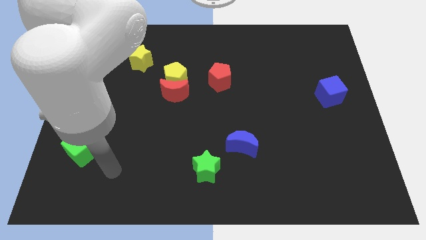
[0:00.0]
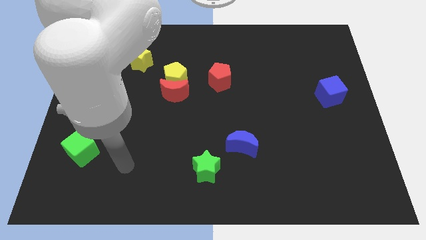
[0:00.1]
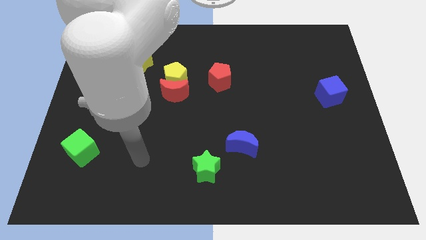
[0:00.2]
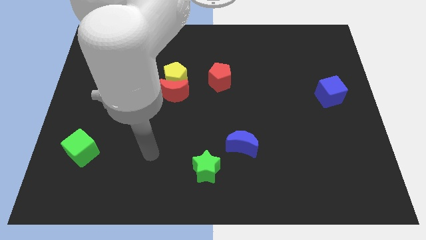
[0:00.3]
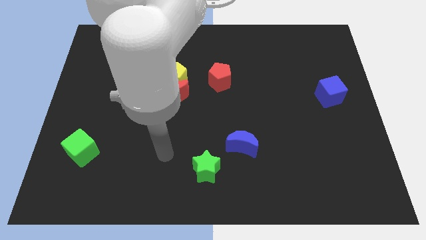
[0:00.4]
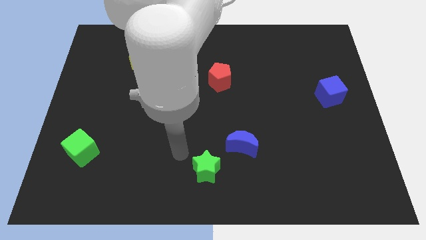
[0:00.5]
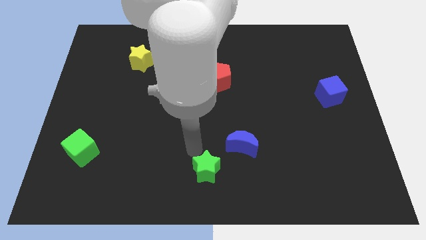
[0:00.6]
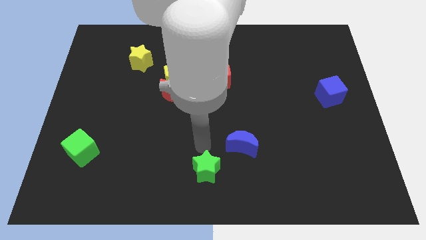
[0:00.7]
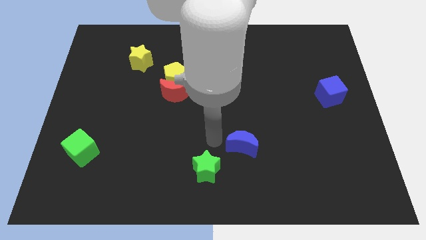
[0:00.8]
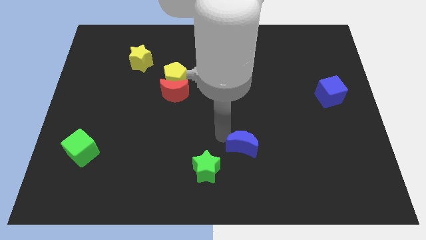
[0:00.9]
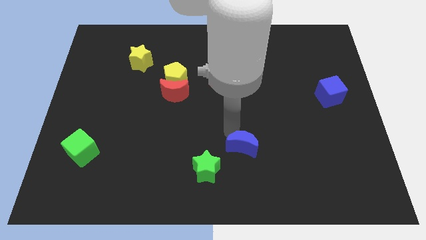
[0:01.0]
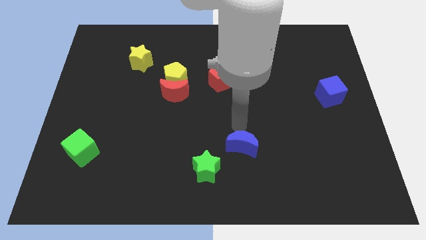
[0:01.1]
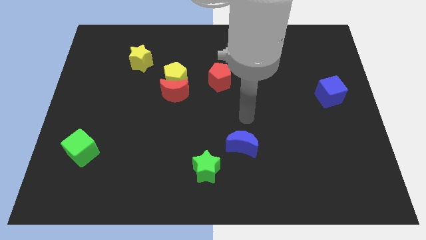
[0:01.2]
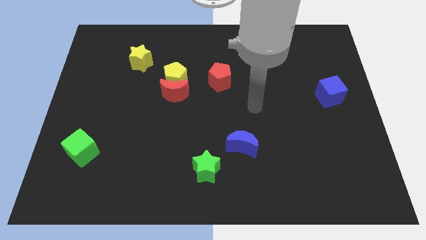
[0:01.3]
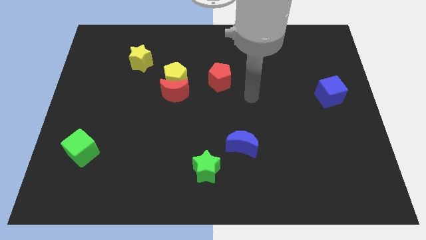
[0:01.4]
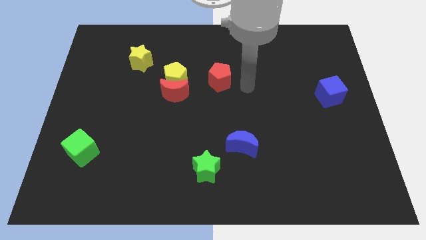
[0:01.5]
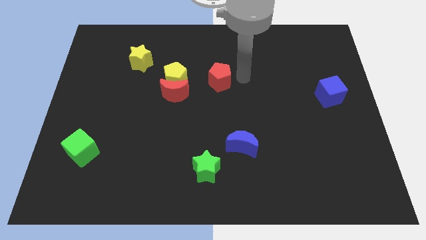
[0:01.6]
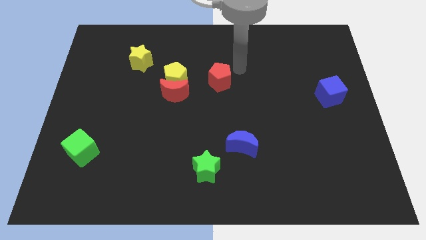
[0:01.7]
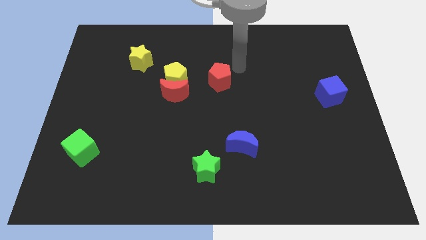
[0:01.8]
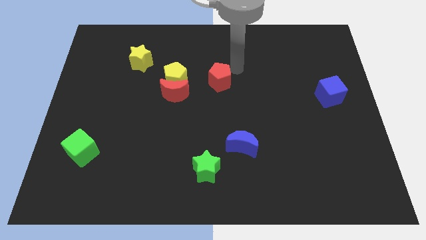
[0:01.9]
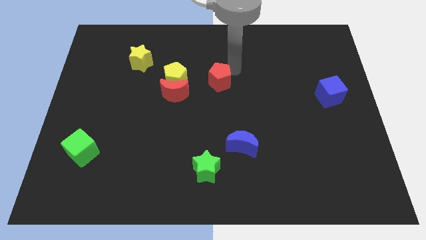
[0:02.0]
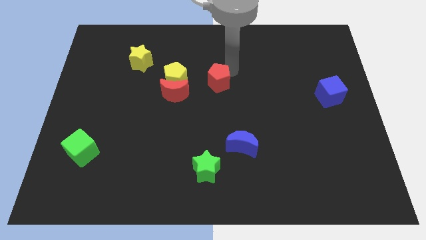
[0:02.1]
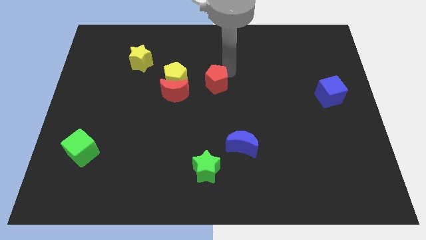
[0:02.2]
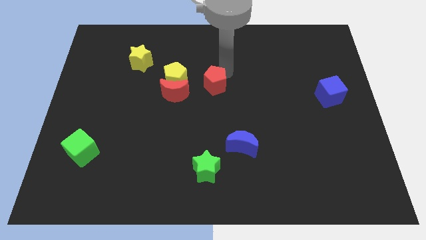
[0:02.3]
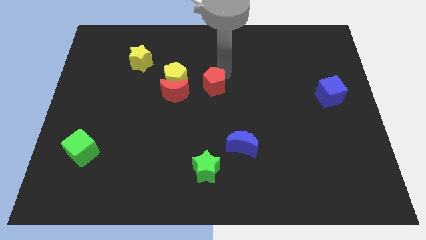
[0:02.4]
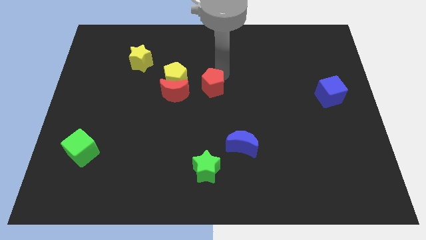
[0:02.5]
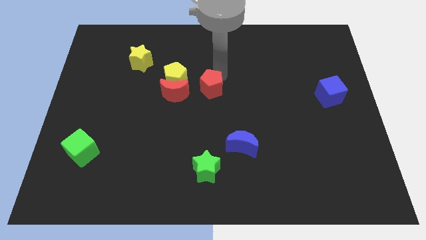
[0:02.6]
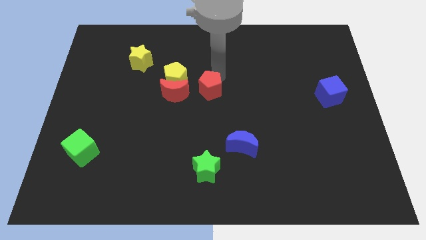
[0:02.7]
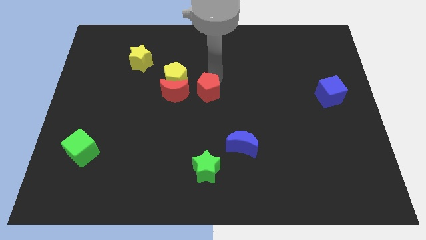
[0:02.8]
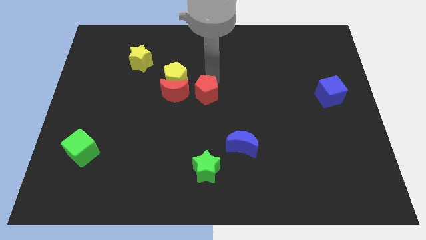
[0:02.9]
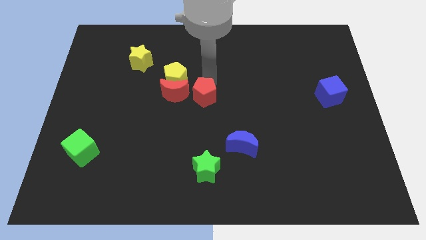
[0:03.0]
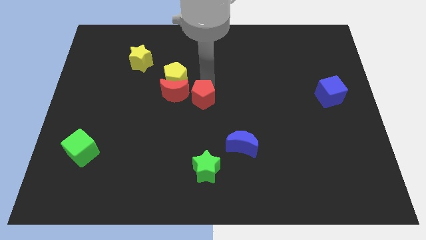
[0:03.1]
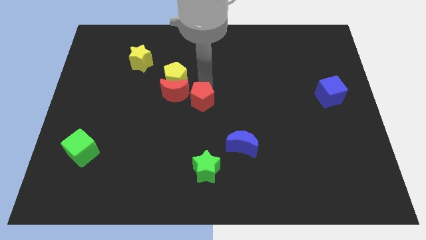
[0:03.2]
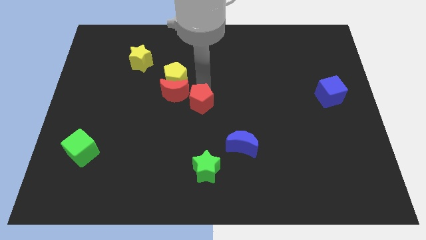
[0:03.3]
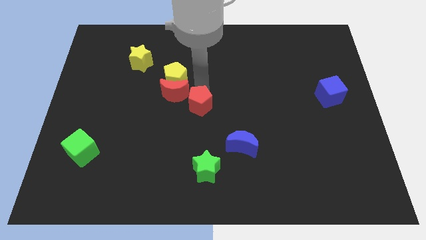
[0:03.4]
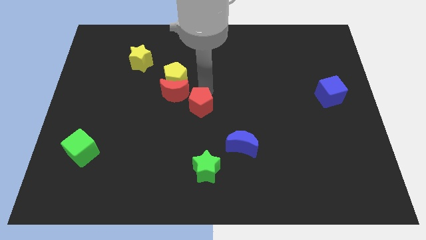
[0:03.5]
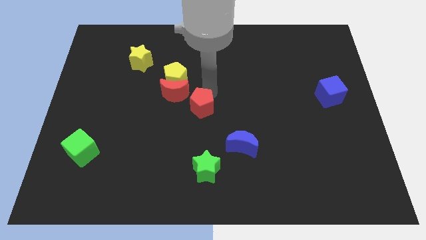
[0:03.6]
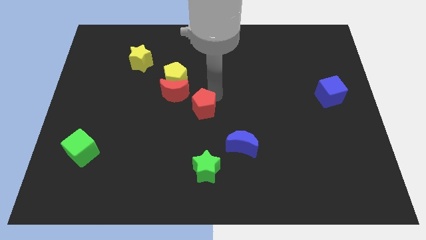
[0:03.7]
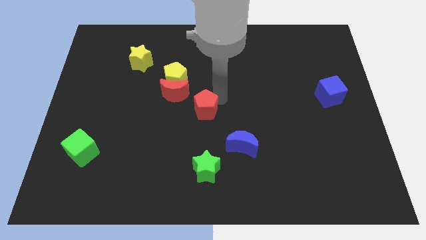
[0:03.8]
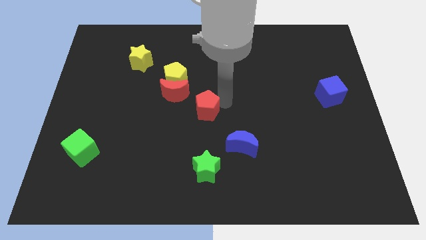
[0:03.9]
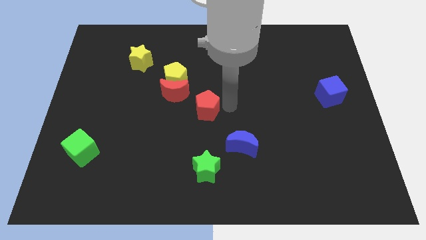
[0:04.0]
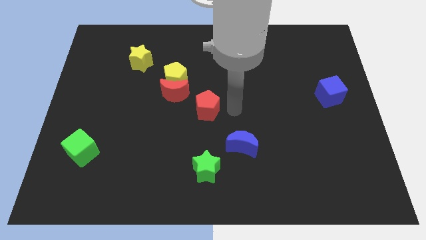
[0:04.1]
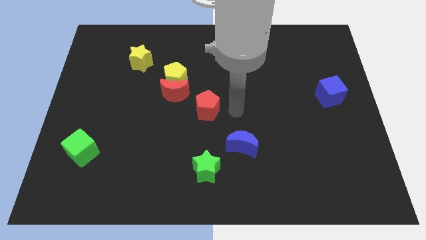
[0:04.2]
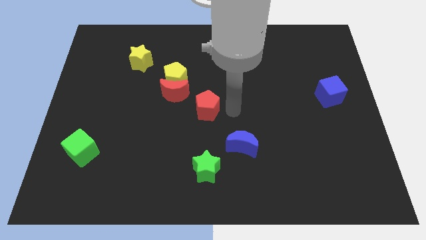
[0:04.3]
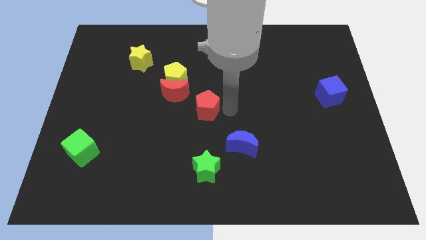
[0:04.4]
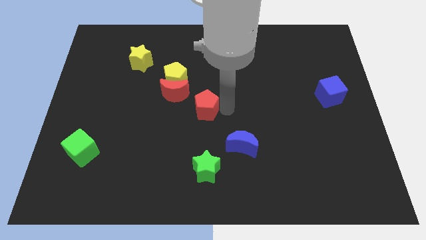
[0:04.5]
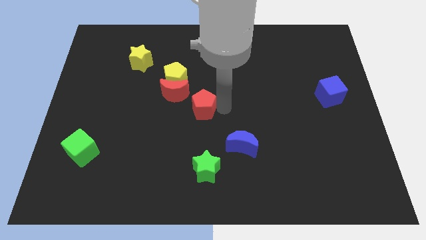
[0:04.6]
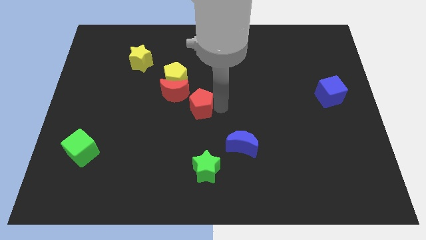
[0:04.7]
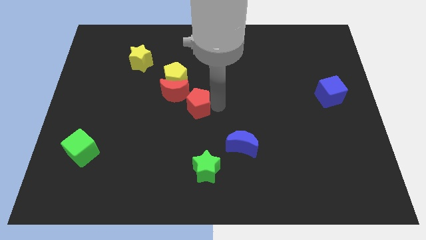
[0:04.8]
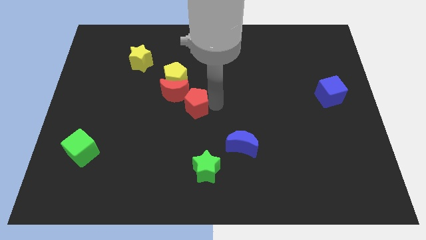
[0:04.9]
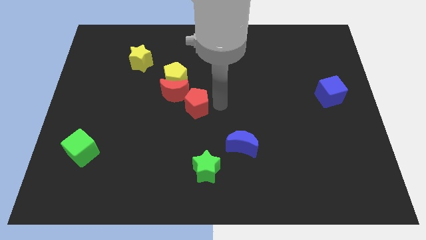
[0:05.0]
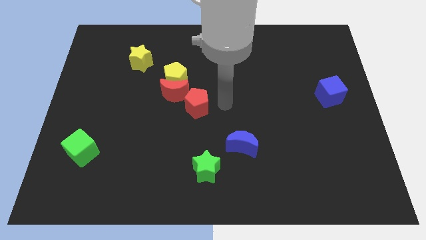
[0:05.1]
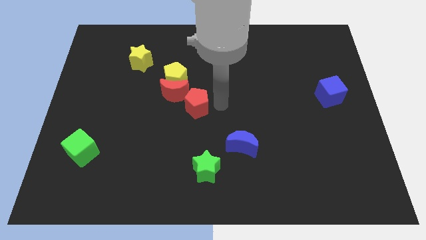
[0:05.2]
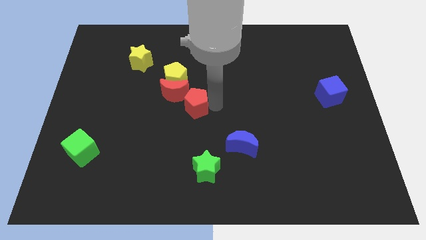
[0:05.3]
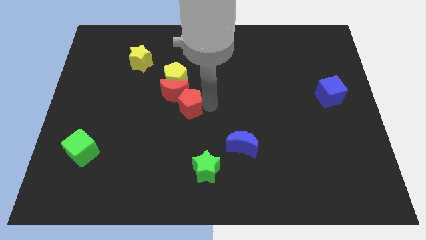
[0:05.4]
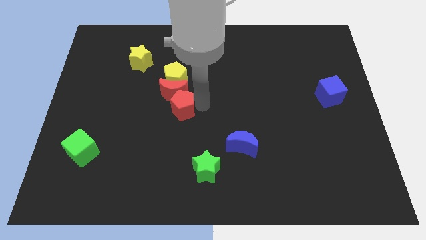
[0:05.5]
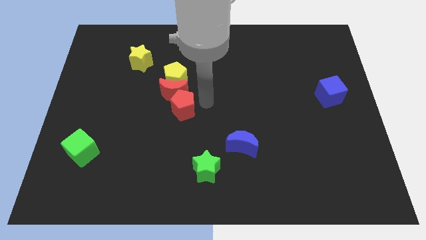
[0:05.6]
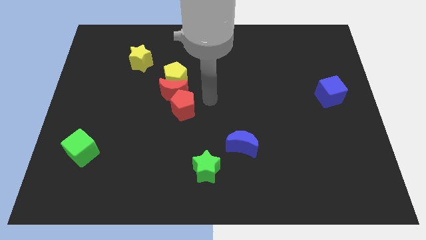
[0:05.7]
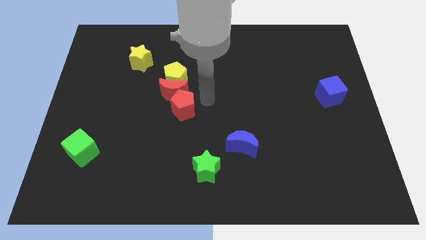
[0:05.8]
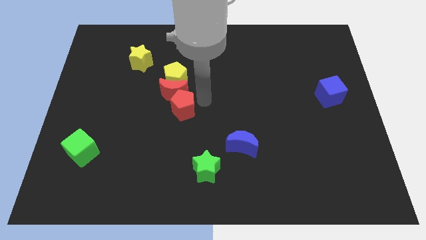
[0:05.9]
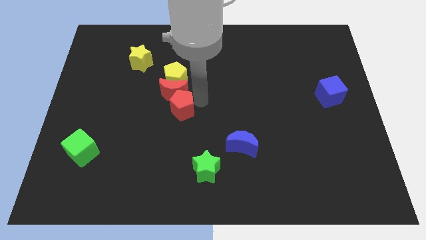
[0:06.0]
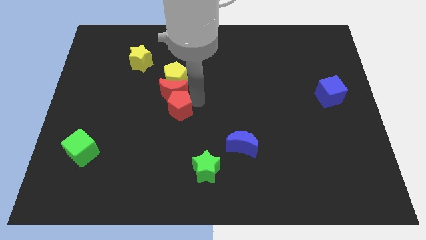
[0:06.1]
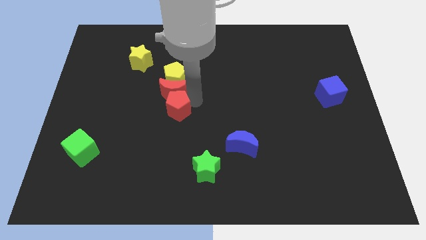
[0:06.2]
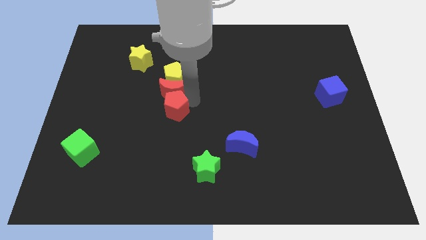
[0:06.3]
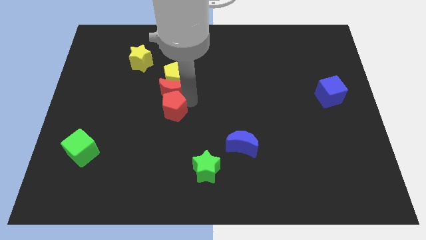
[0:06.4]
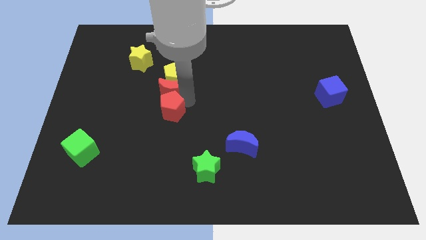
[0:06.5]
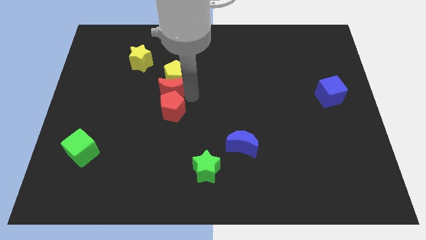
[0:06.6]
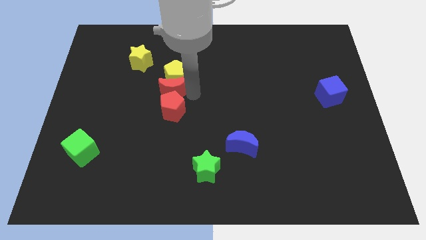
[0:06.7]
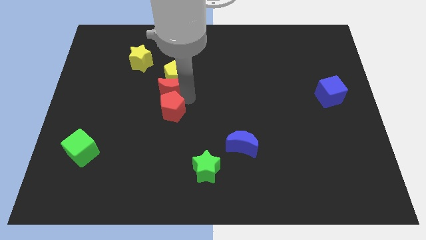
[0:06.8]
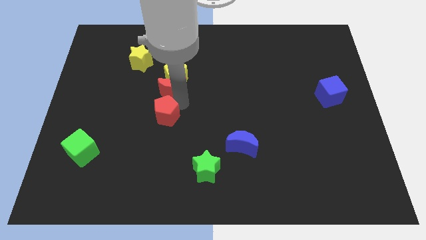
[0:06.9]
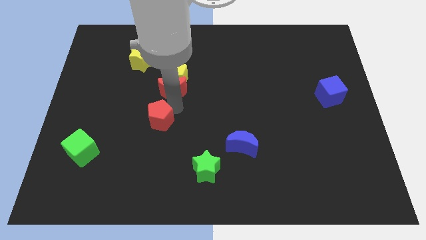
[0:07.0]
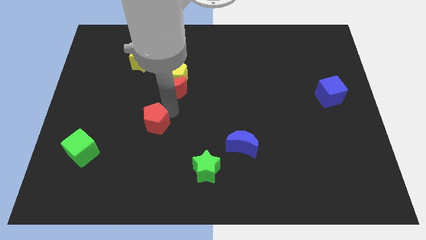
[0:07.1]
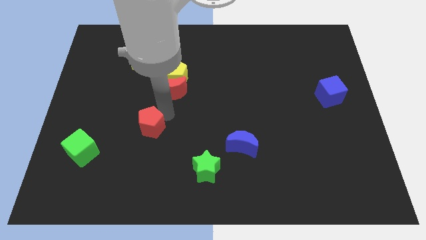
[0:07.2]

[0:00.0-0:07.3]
slide the red pentagon downwards and to the left

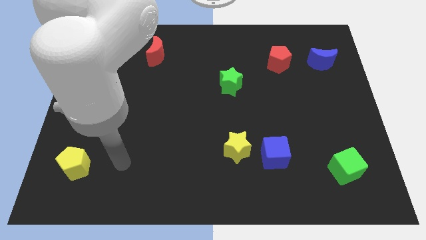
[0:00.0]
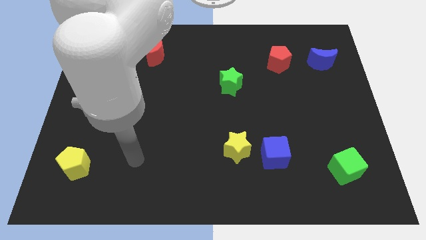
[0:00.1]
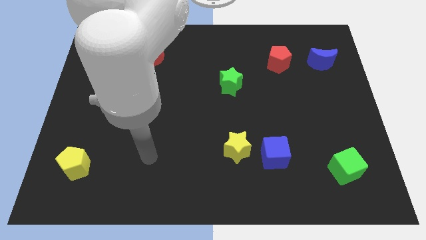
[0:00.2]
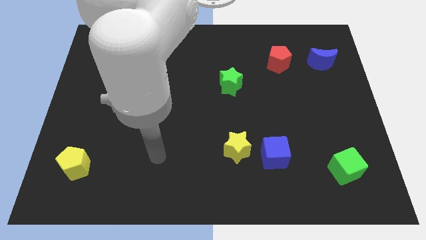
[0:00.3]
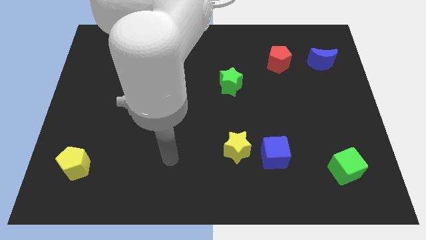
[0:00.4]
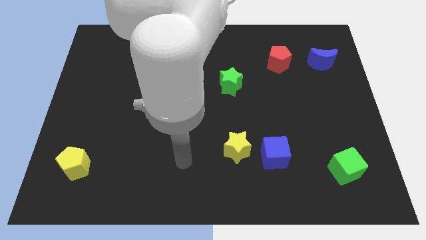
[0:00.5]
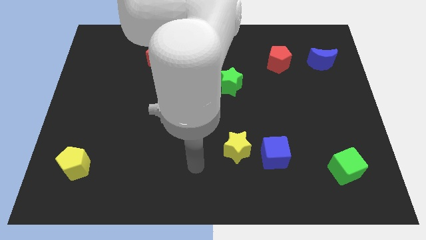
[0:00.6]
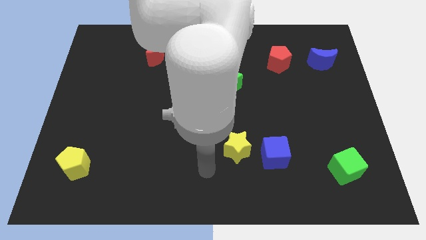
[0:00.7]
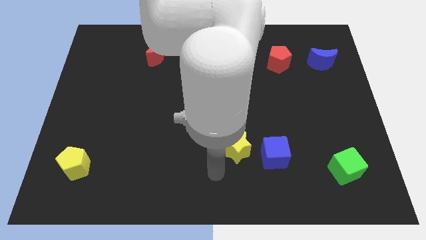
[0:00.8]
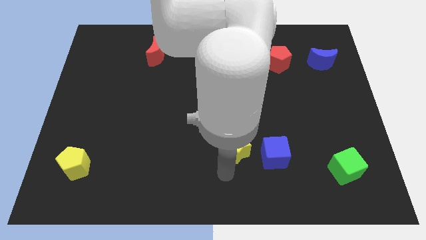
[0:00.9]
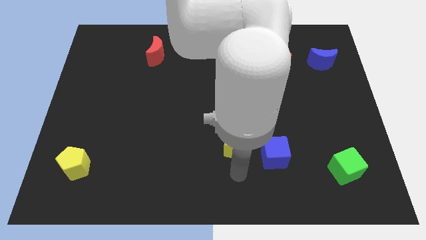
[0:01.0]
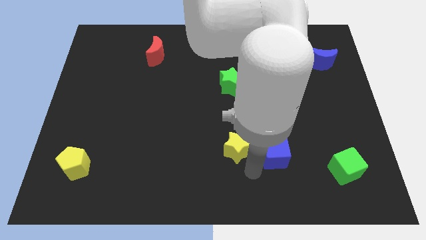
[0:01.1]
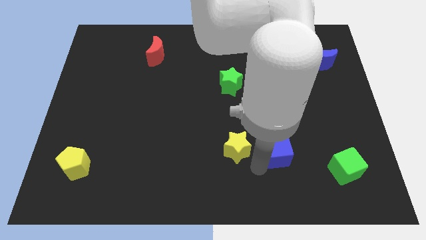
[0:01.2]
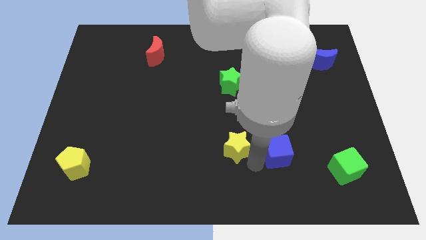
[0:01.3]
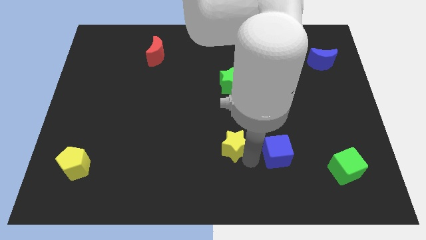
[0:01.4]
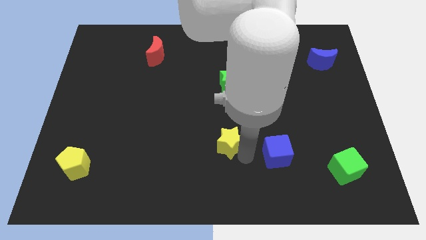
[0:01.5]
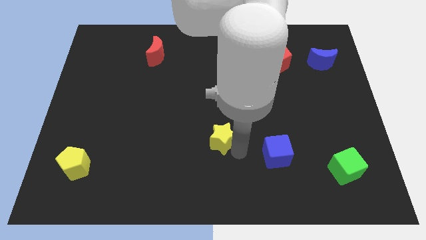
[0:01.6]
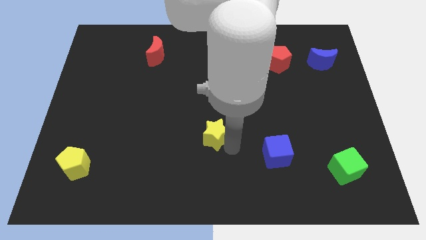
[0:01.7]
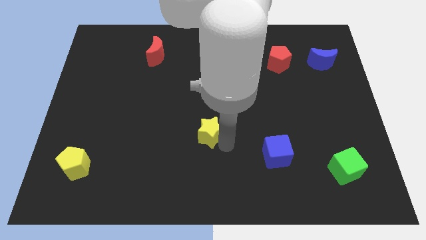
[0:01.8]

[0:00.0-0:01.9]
slide the yellow star a little diagonally up and to the left
